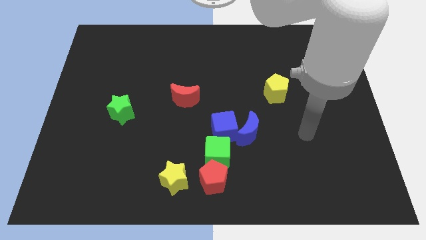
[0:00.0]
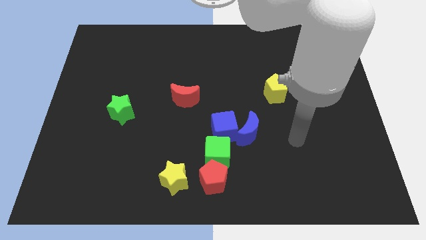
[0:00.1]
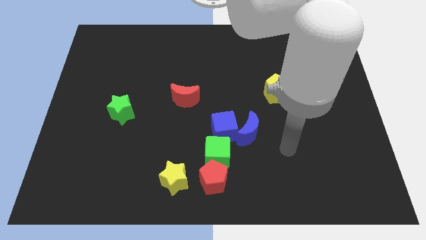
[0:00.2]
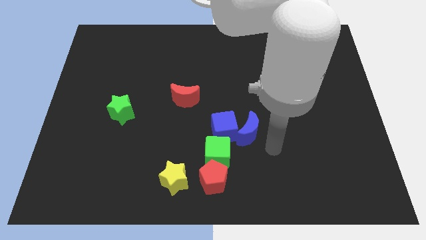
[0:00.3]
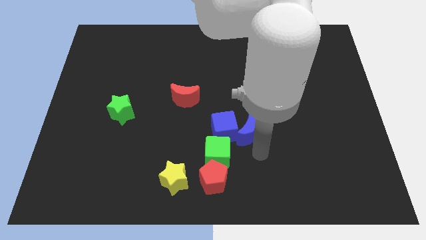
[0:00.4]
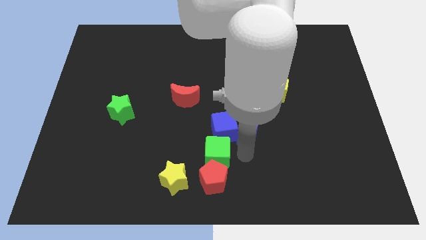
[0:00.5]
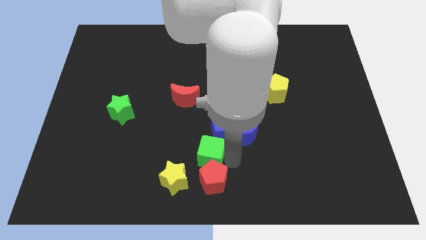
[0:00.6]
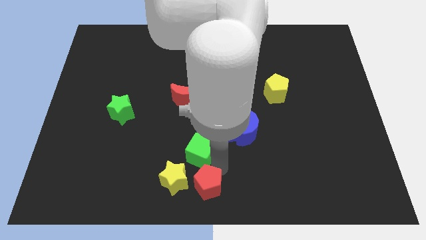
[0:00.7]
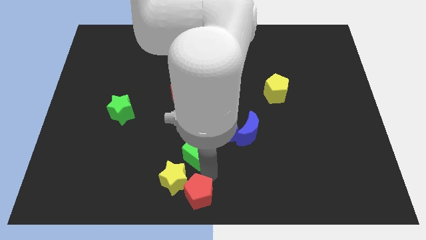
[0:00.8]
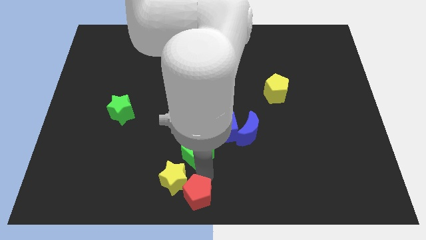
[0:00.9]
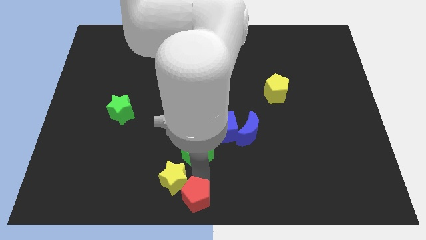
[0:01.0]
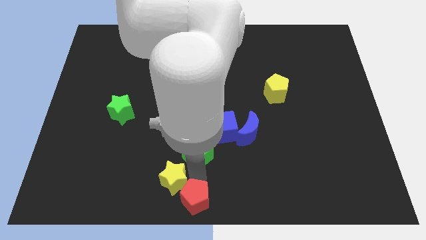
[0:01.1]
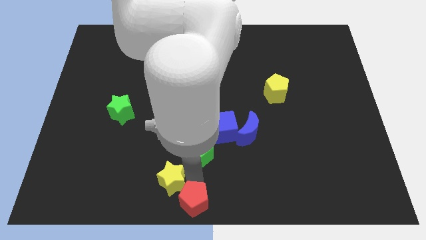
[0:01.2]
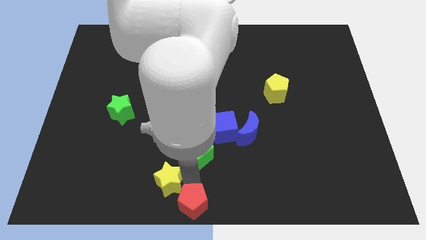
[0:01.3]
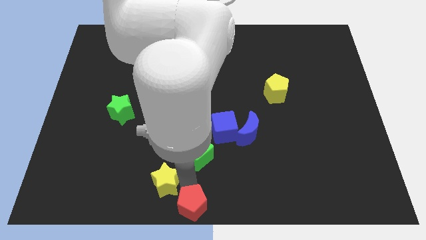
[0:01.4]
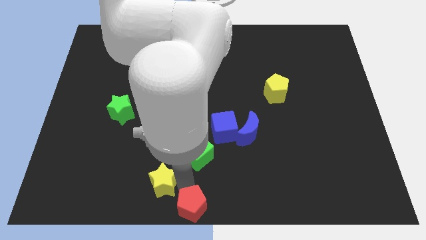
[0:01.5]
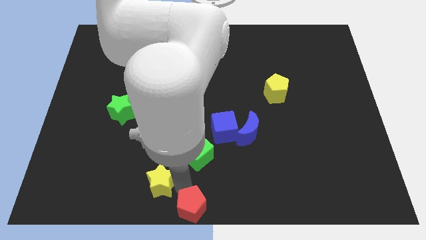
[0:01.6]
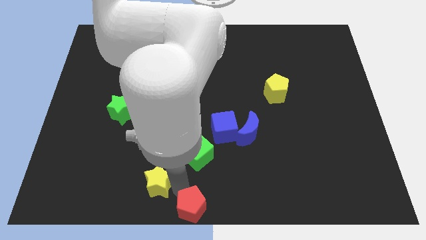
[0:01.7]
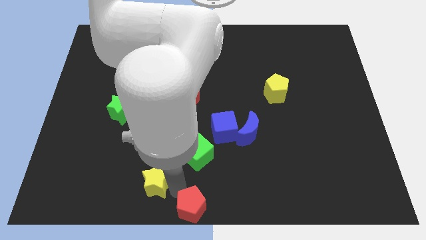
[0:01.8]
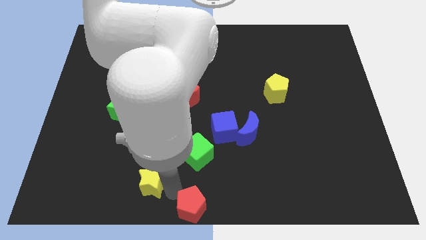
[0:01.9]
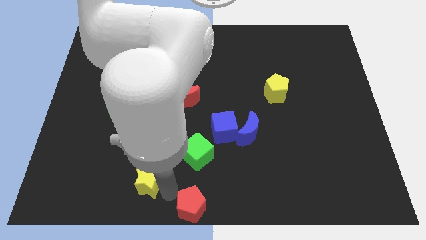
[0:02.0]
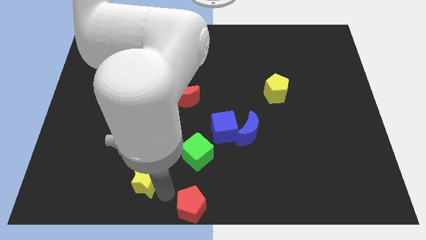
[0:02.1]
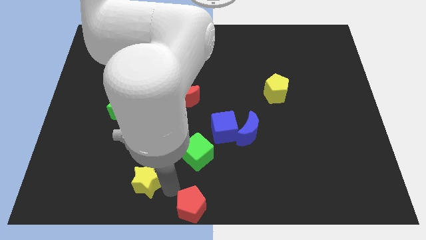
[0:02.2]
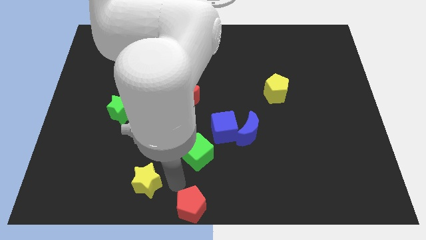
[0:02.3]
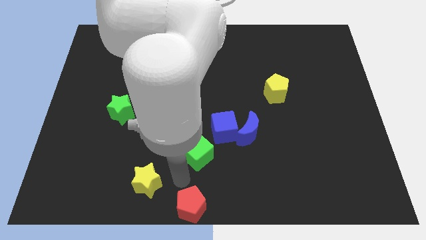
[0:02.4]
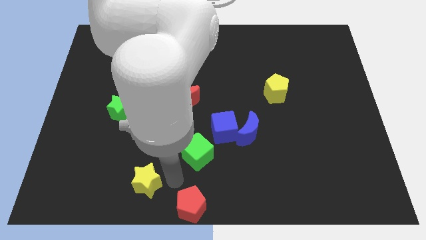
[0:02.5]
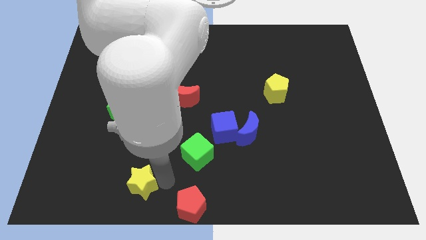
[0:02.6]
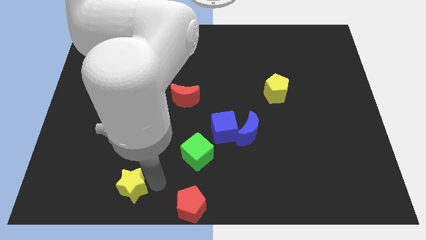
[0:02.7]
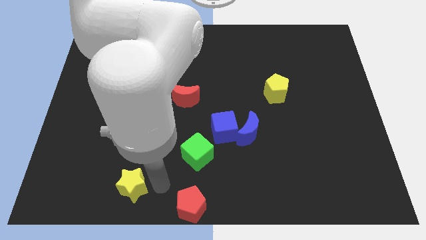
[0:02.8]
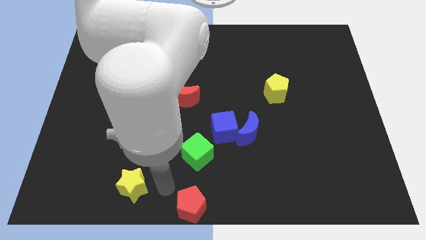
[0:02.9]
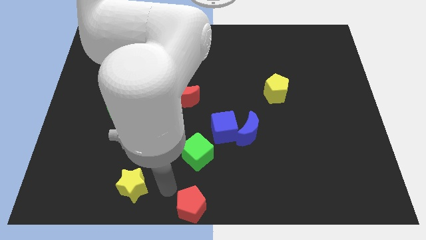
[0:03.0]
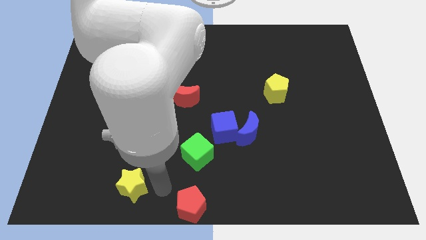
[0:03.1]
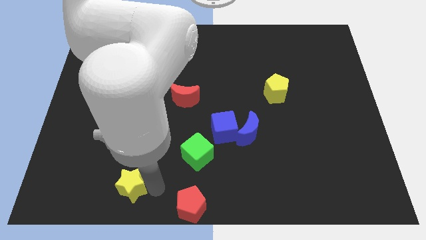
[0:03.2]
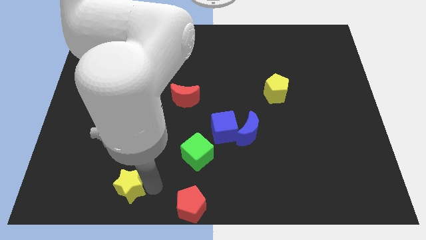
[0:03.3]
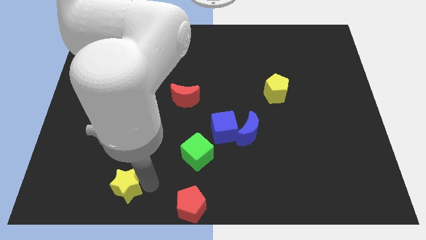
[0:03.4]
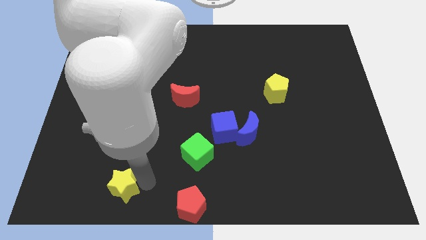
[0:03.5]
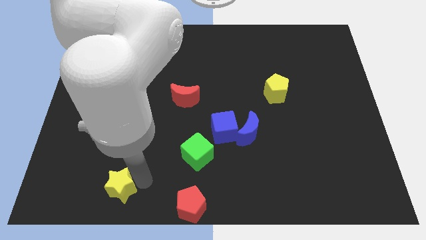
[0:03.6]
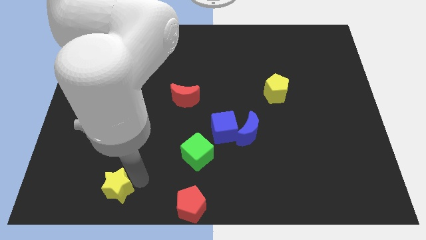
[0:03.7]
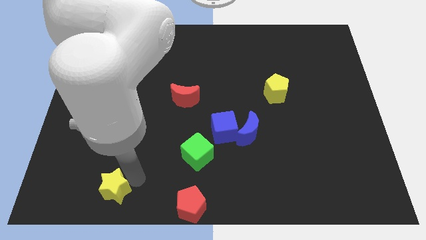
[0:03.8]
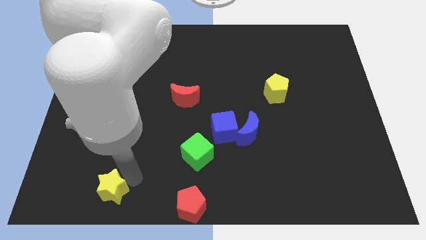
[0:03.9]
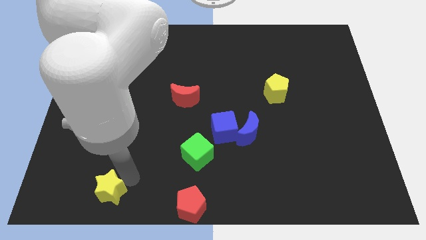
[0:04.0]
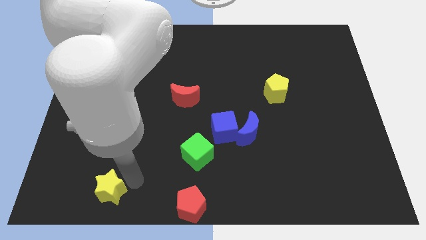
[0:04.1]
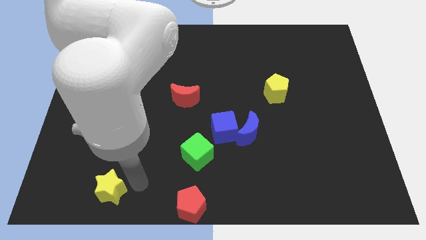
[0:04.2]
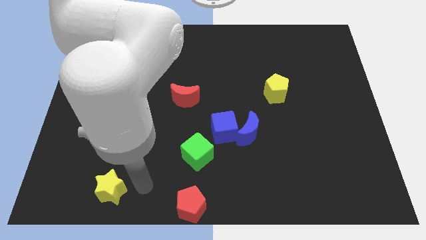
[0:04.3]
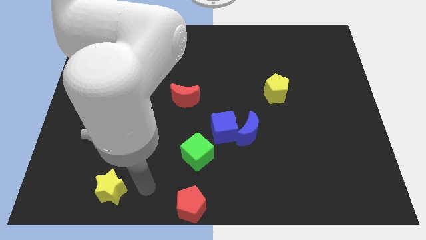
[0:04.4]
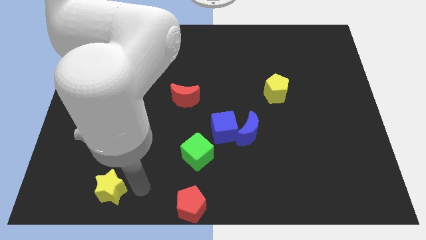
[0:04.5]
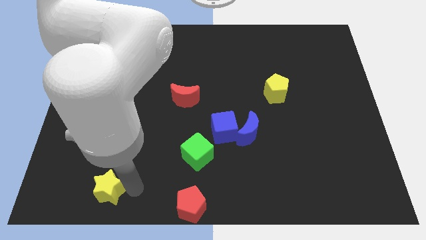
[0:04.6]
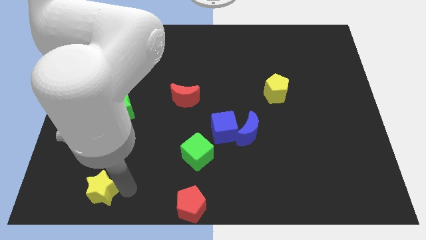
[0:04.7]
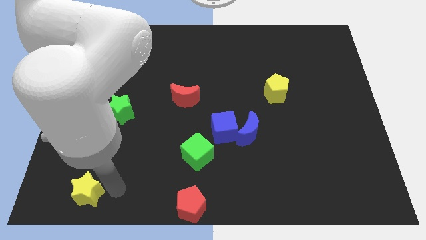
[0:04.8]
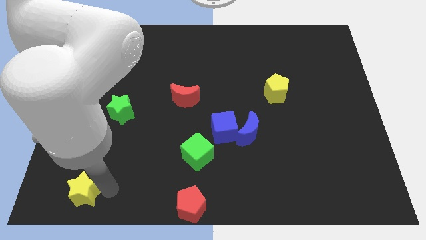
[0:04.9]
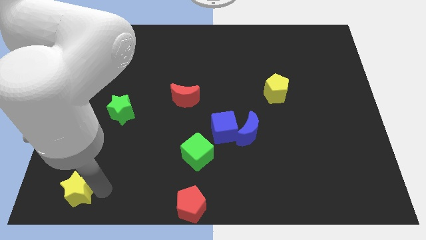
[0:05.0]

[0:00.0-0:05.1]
slide the yellow star to the lower left corner
